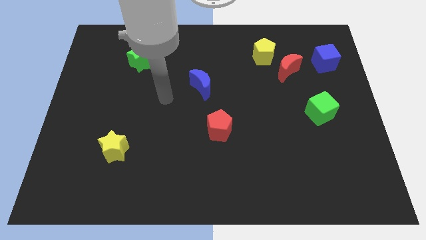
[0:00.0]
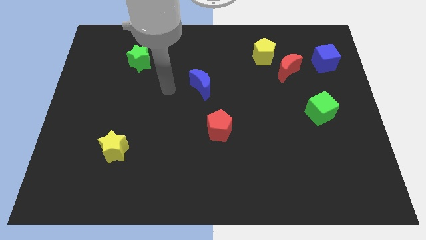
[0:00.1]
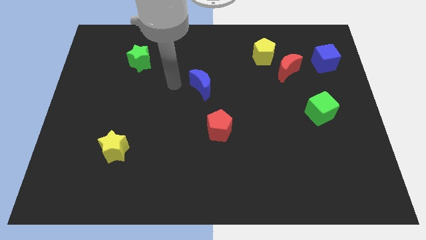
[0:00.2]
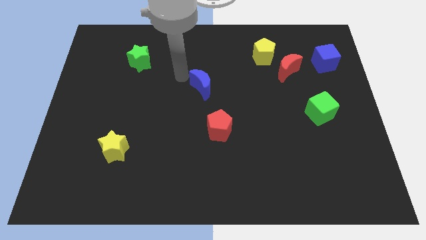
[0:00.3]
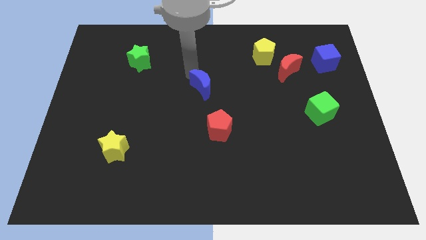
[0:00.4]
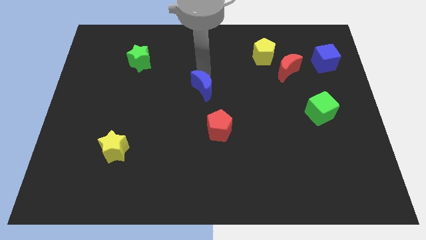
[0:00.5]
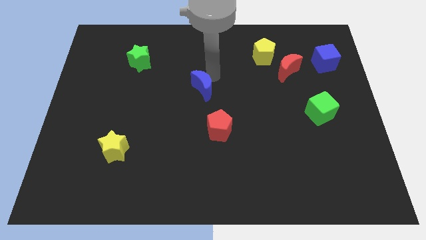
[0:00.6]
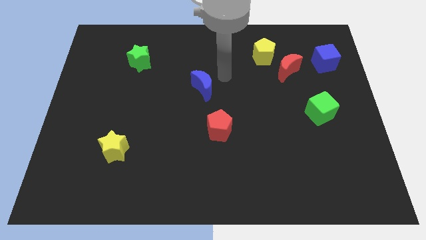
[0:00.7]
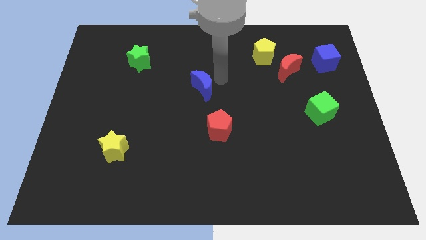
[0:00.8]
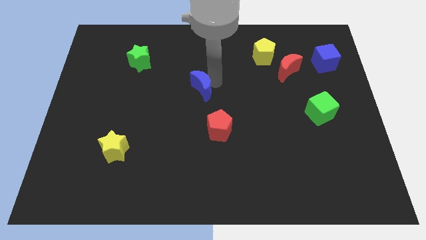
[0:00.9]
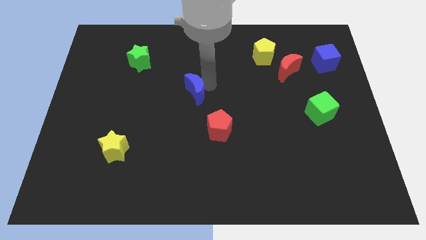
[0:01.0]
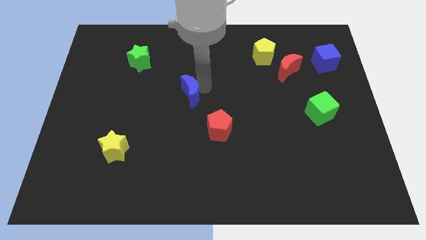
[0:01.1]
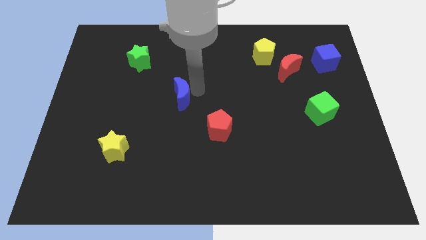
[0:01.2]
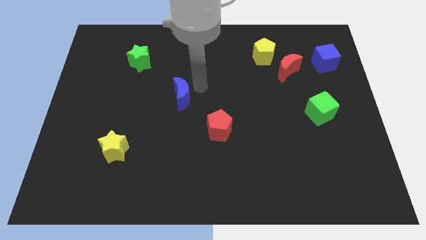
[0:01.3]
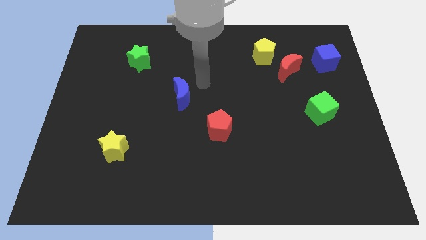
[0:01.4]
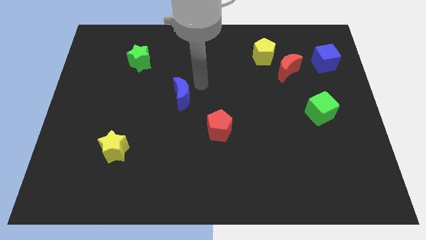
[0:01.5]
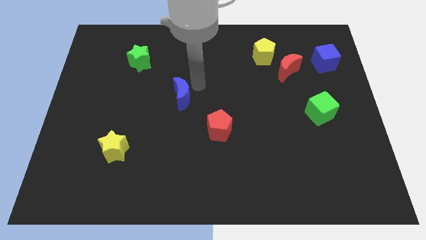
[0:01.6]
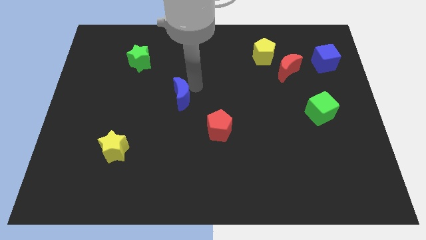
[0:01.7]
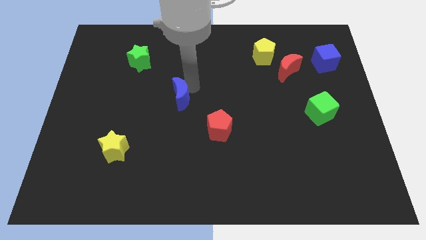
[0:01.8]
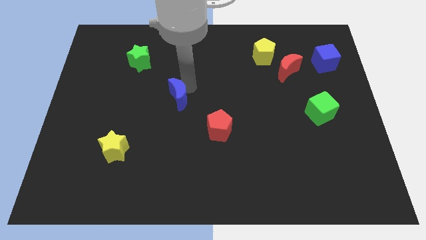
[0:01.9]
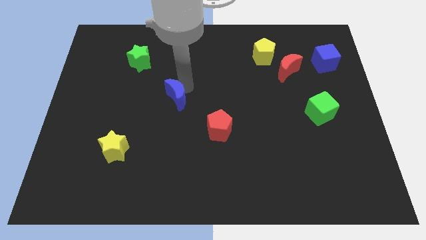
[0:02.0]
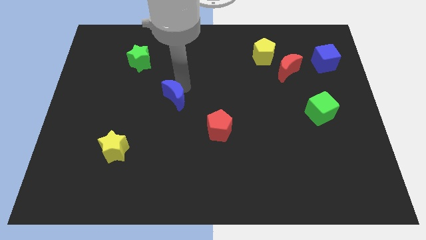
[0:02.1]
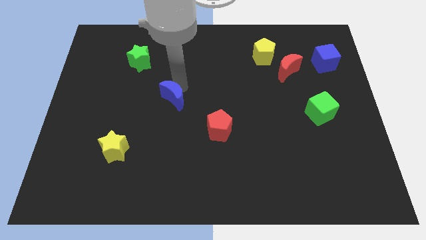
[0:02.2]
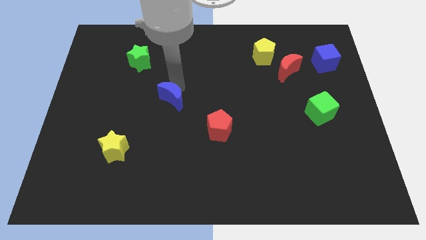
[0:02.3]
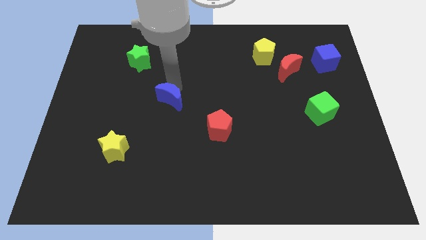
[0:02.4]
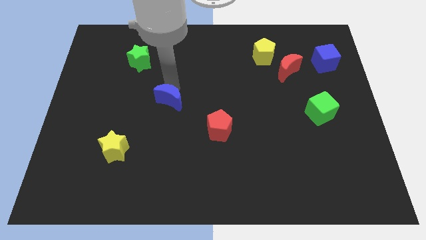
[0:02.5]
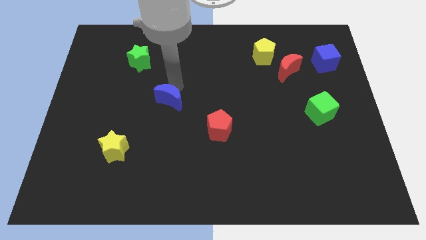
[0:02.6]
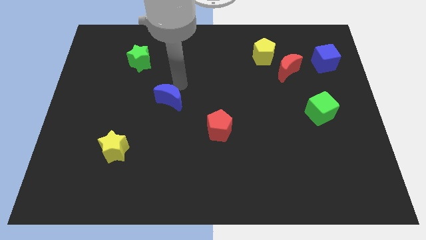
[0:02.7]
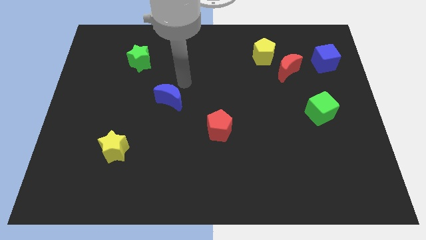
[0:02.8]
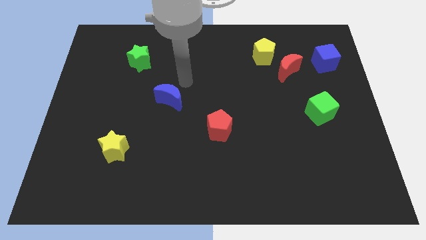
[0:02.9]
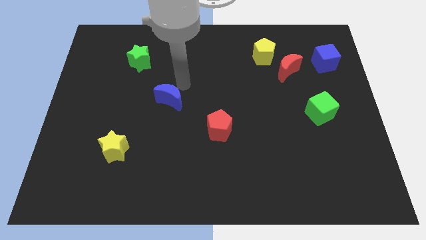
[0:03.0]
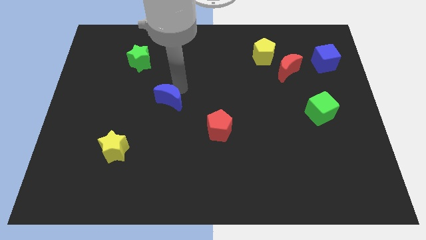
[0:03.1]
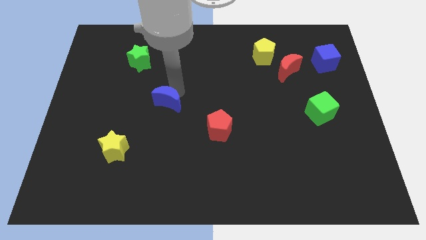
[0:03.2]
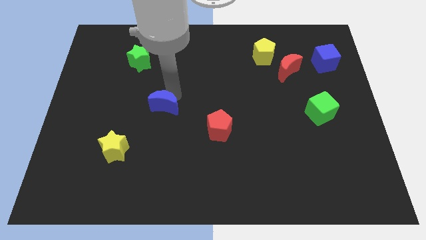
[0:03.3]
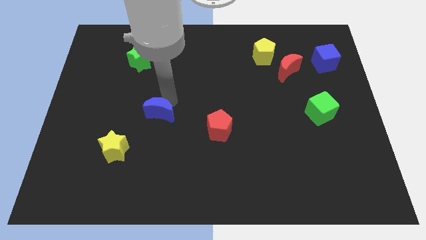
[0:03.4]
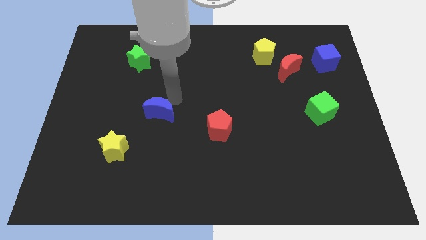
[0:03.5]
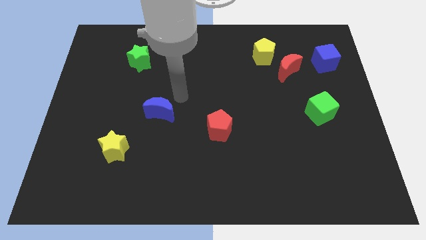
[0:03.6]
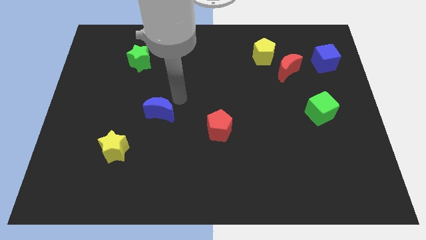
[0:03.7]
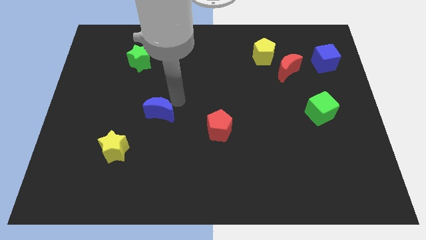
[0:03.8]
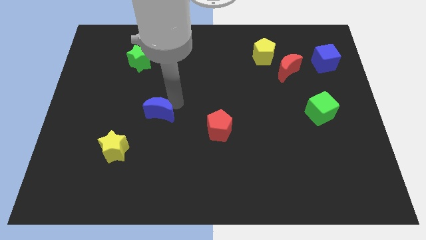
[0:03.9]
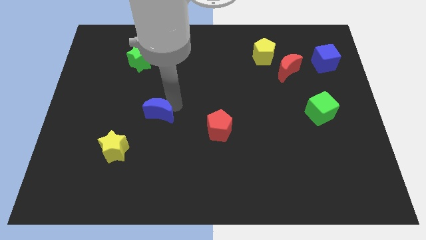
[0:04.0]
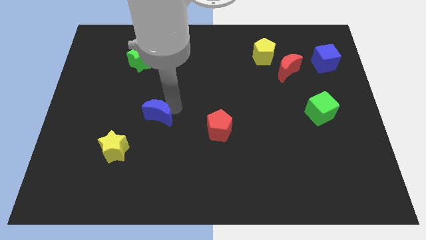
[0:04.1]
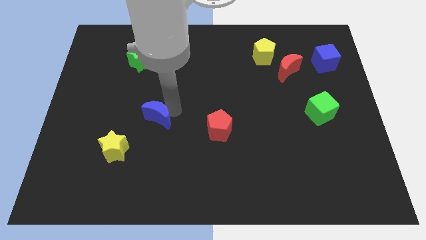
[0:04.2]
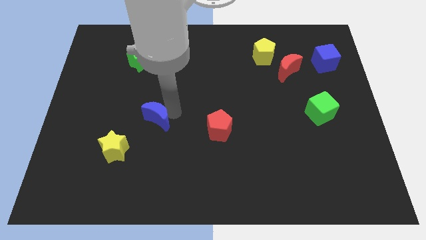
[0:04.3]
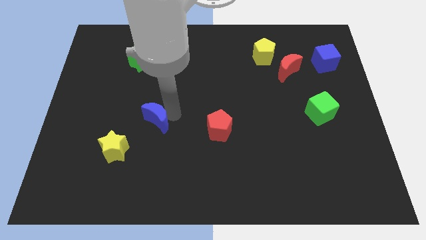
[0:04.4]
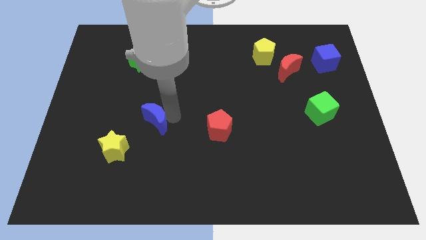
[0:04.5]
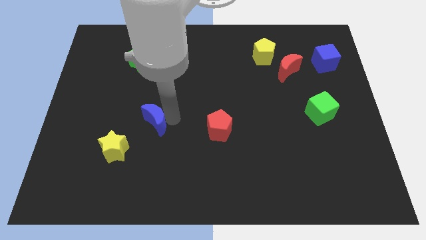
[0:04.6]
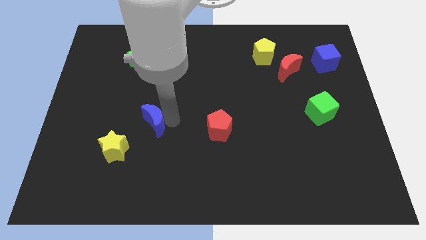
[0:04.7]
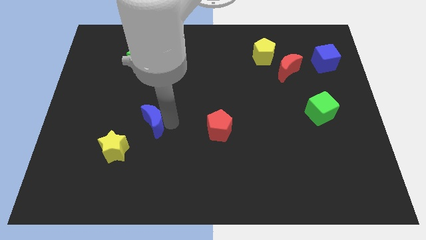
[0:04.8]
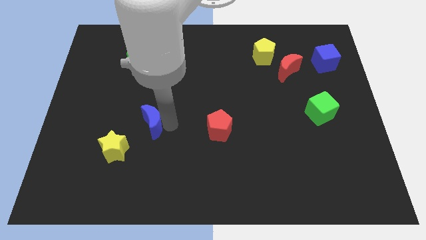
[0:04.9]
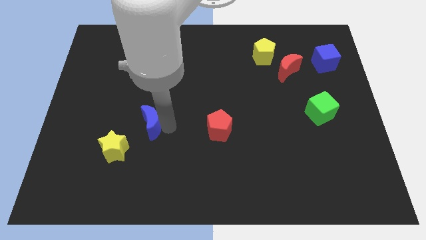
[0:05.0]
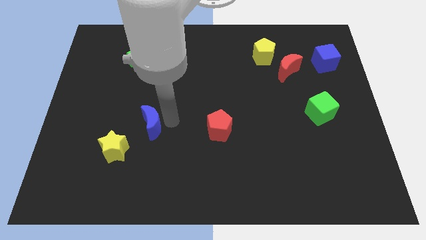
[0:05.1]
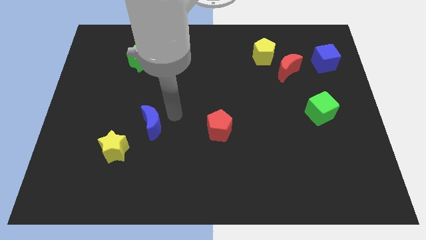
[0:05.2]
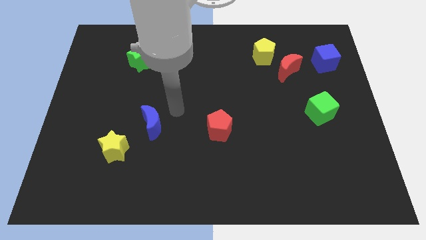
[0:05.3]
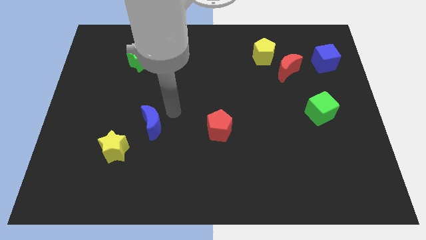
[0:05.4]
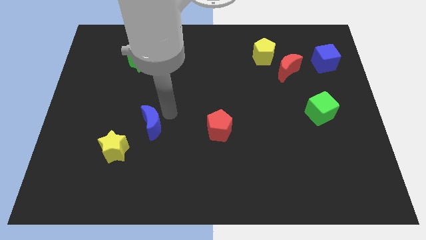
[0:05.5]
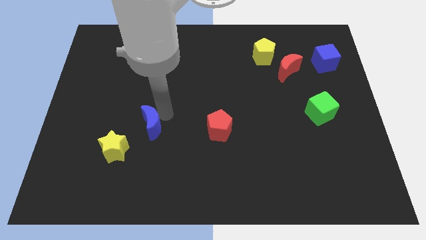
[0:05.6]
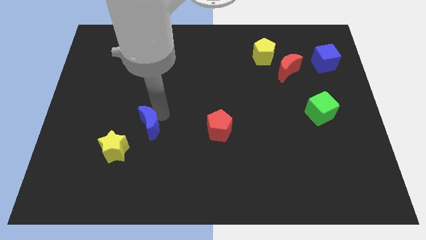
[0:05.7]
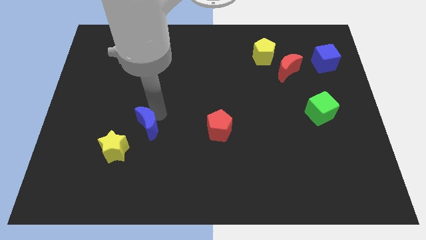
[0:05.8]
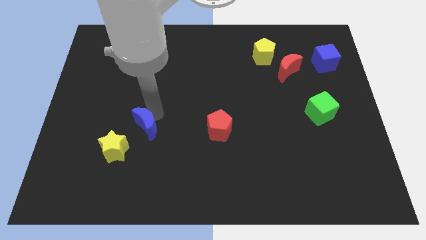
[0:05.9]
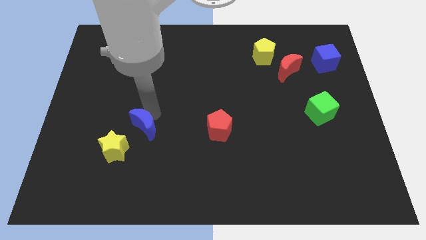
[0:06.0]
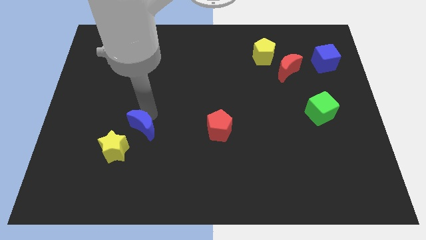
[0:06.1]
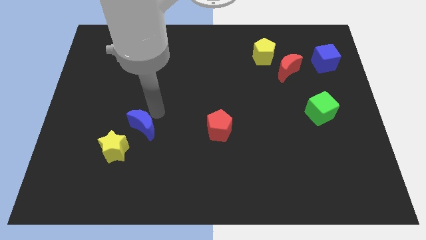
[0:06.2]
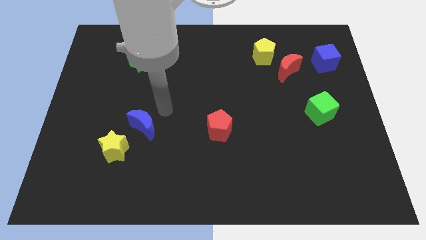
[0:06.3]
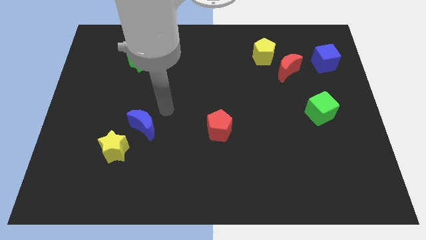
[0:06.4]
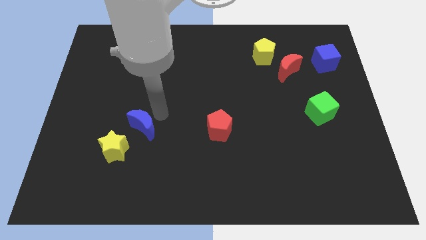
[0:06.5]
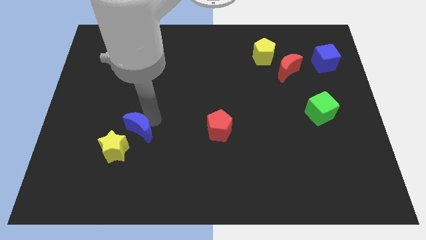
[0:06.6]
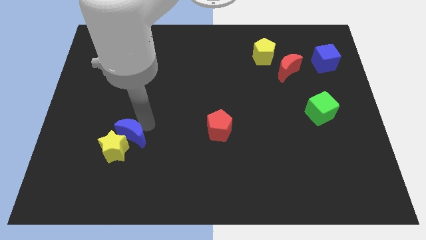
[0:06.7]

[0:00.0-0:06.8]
put the blue moon next to the yellow star
